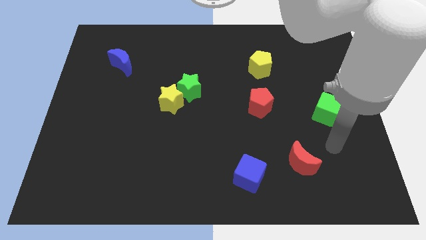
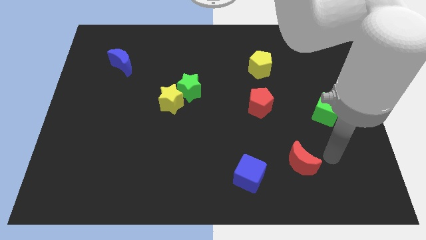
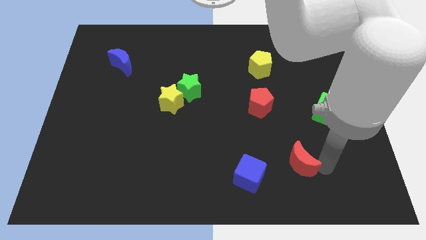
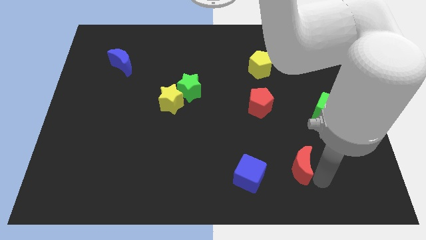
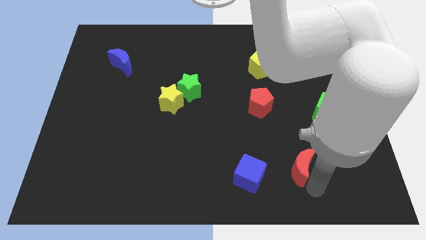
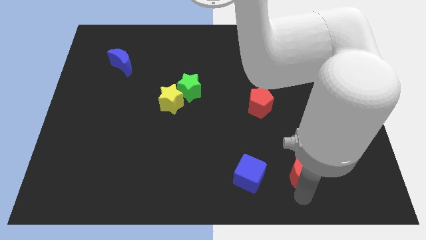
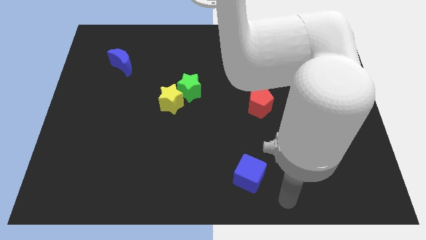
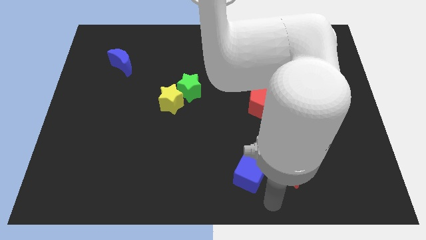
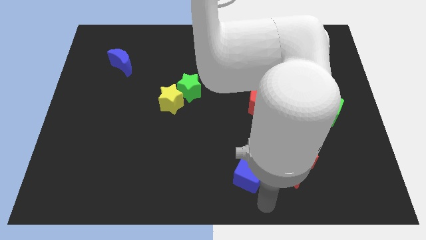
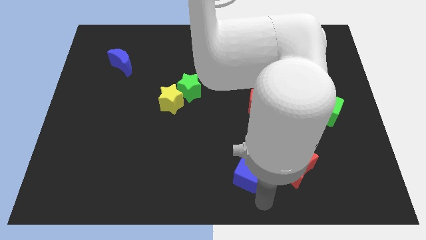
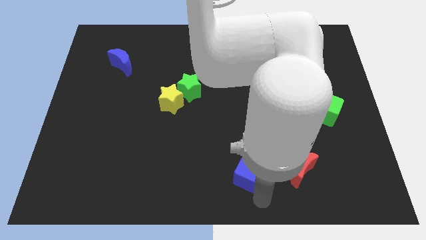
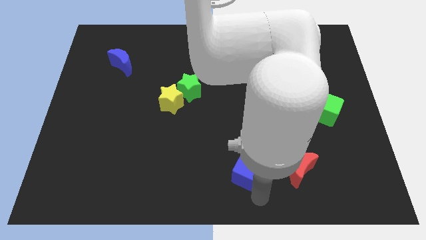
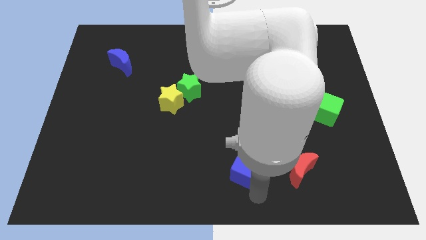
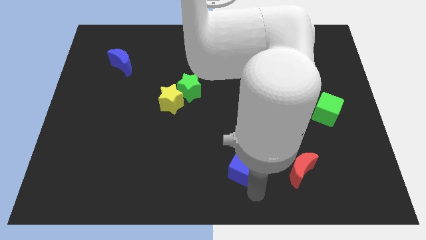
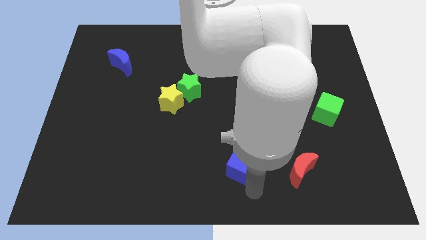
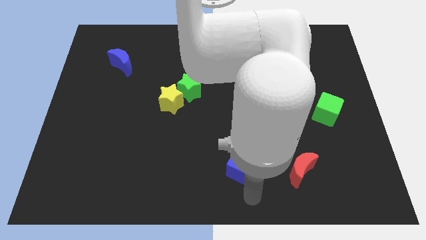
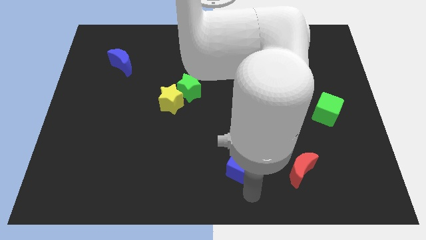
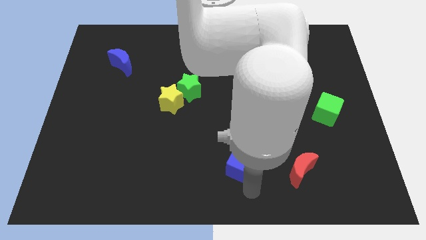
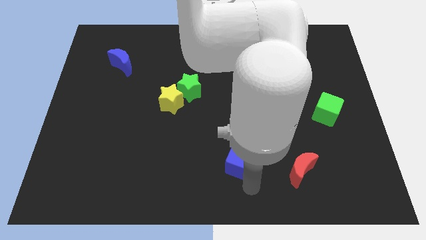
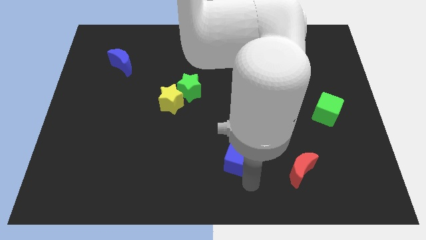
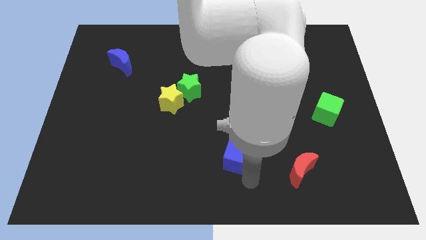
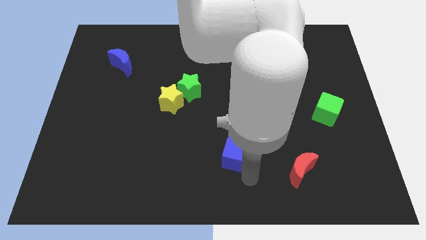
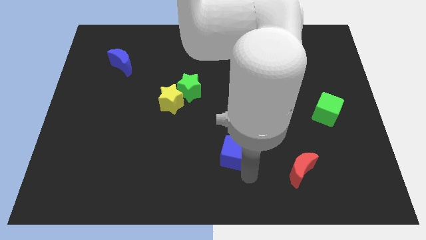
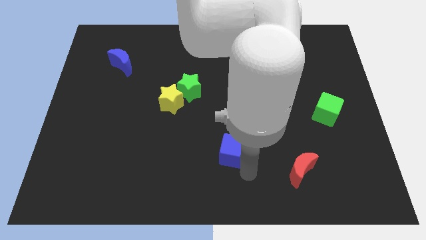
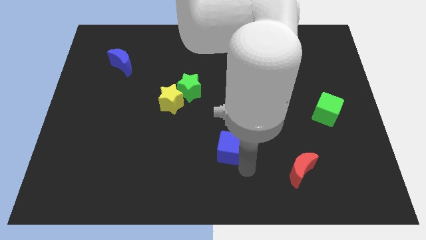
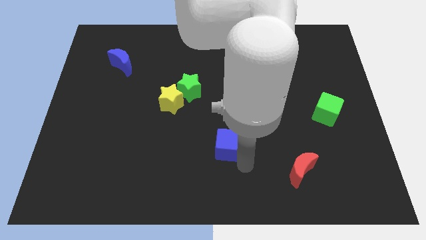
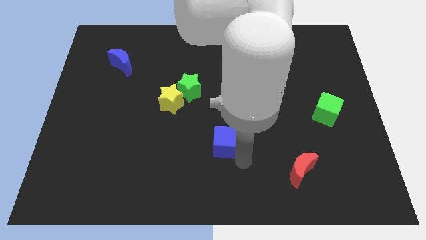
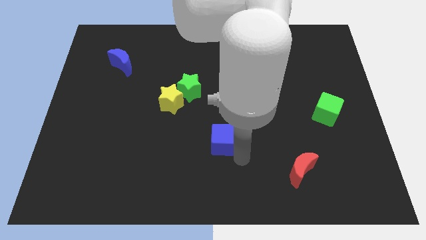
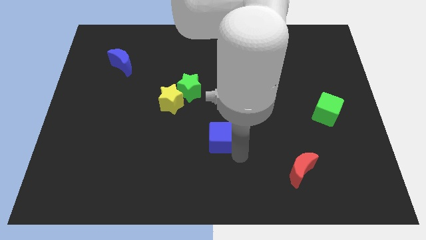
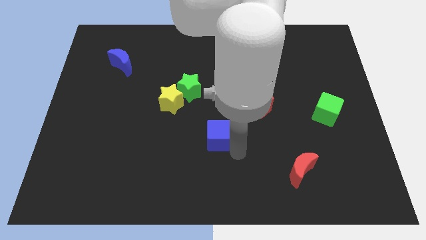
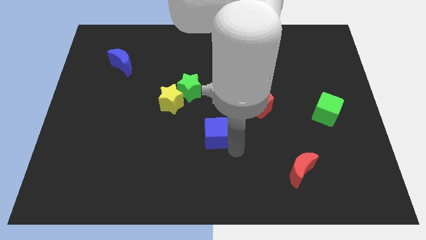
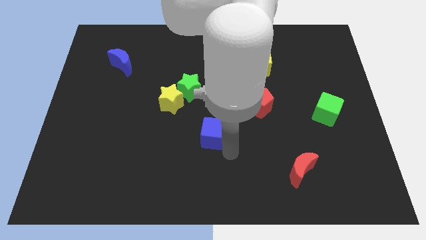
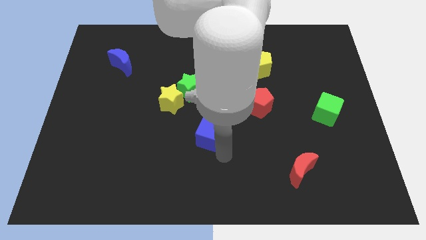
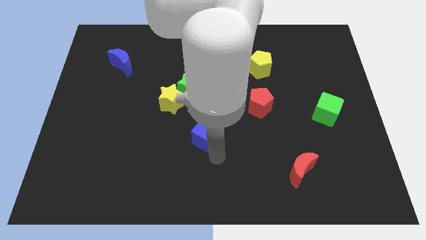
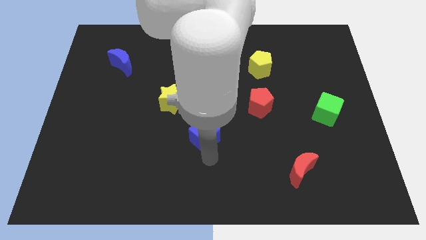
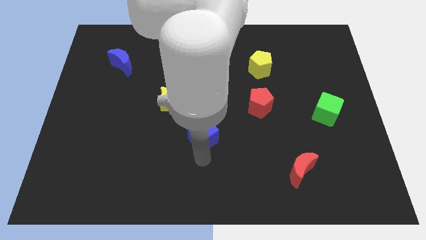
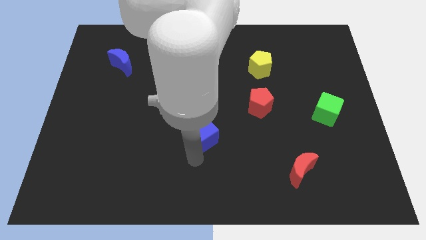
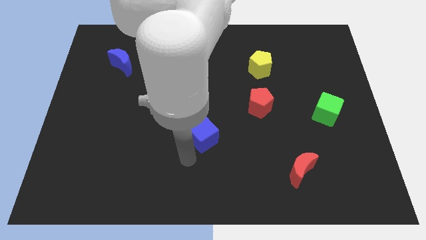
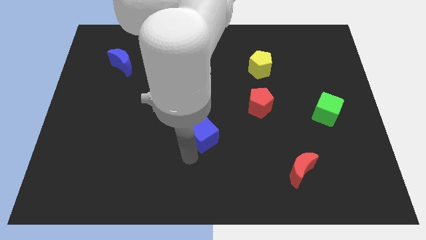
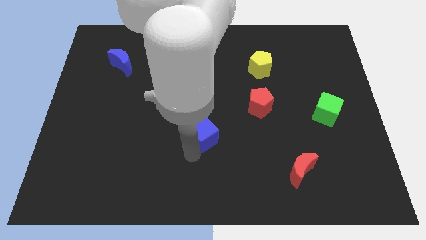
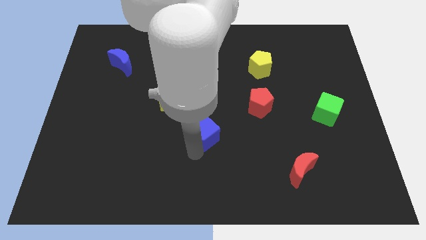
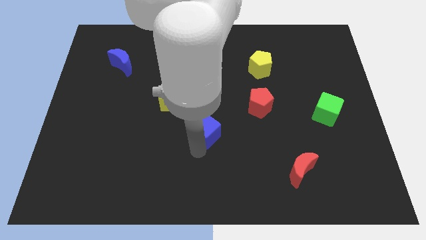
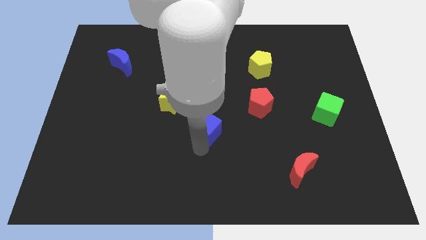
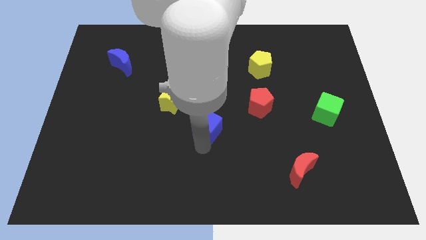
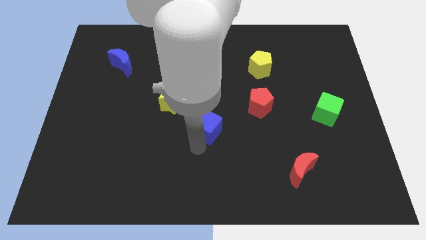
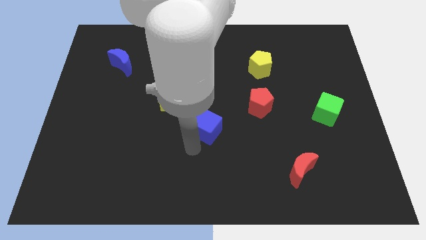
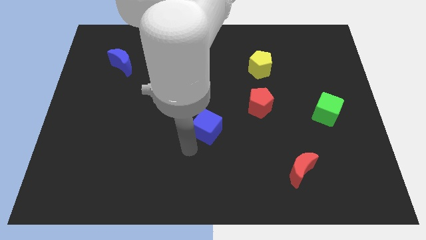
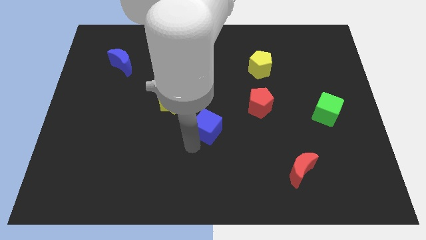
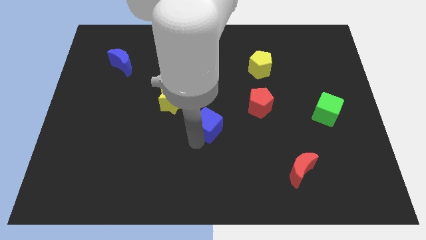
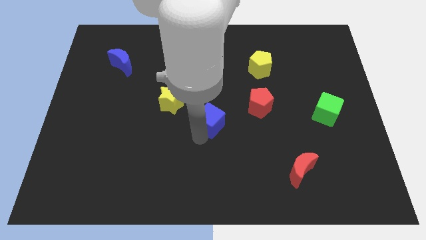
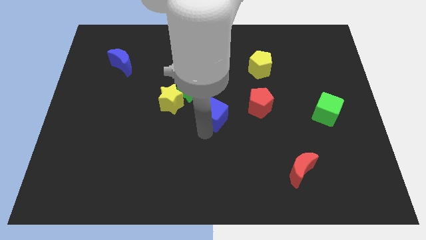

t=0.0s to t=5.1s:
move the blue cube to the left side of the red pentagon

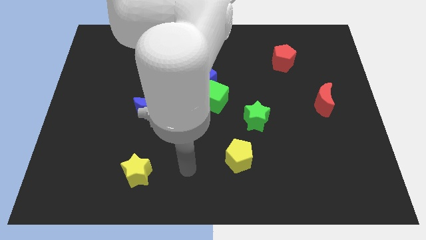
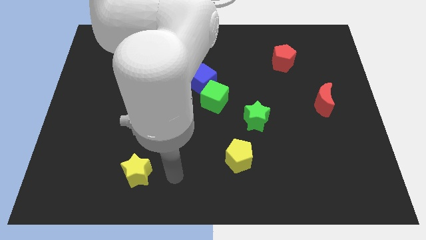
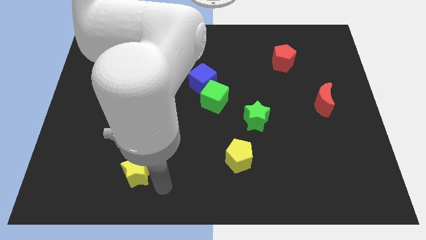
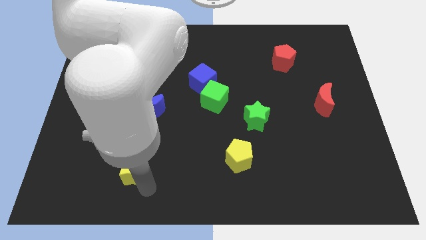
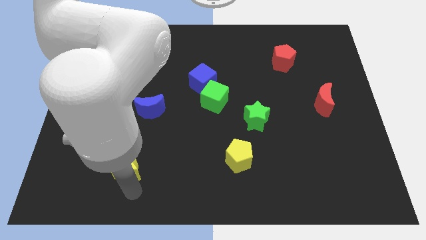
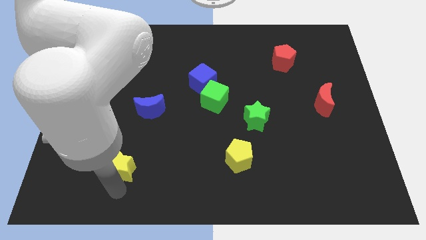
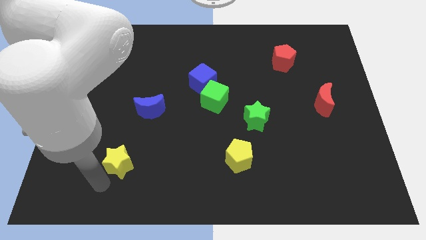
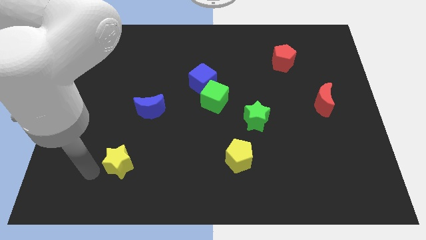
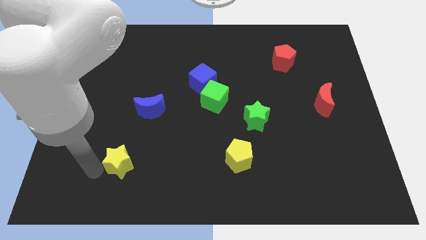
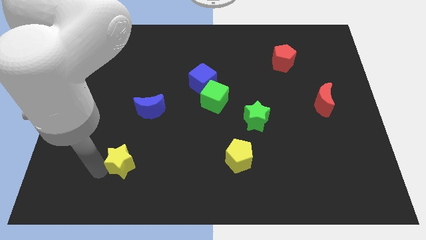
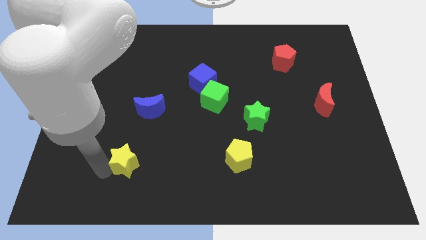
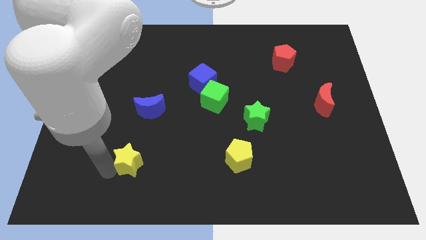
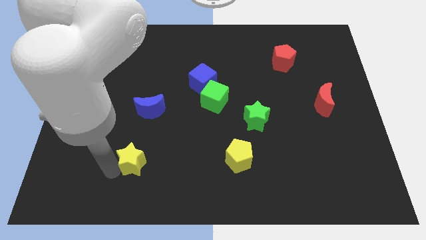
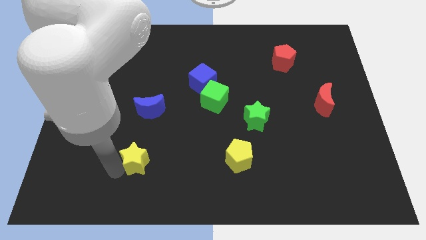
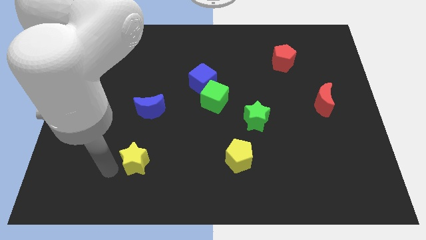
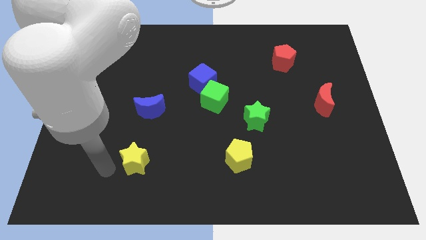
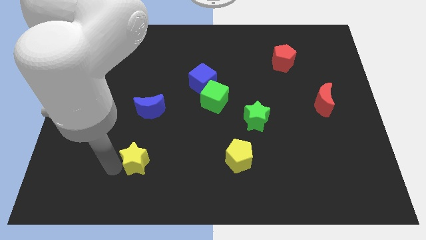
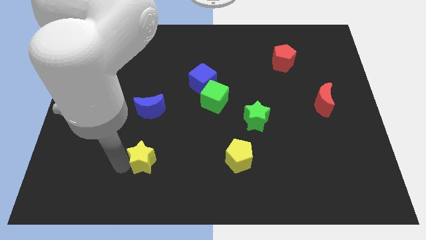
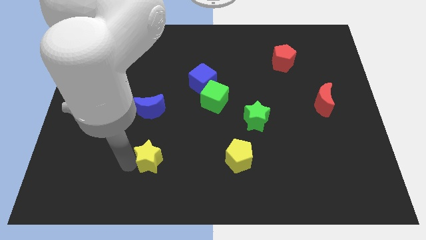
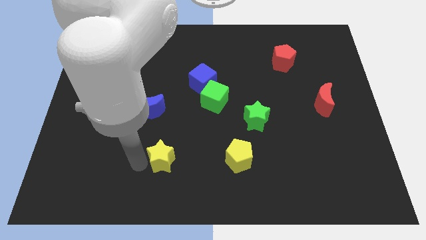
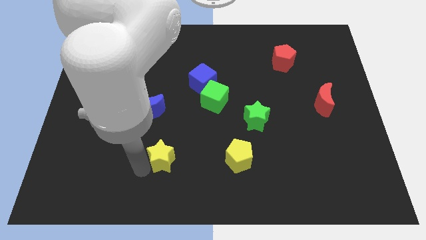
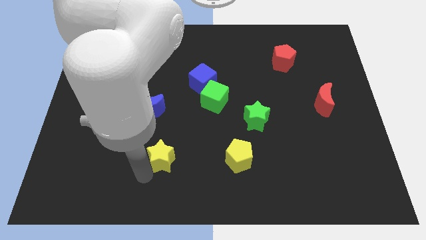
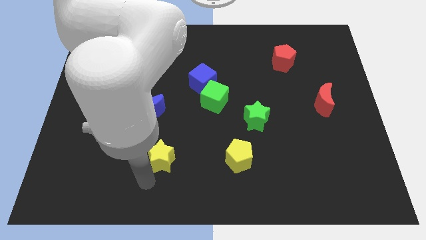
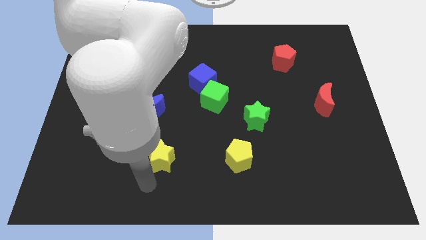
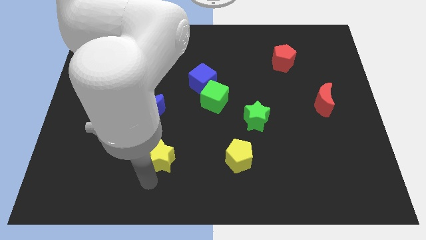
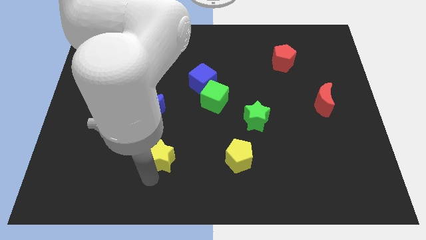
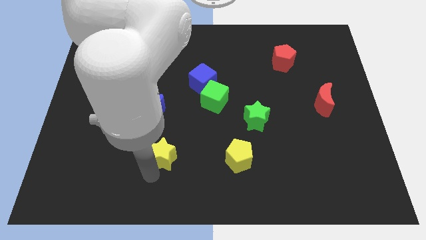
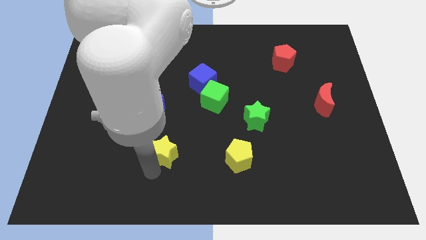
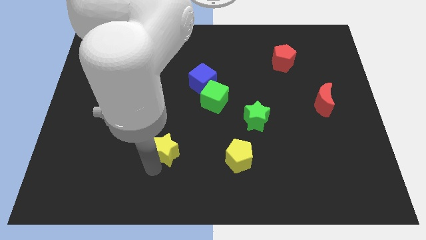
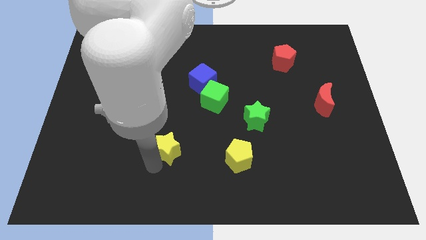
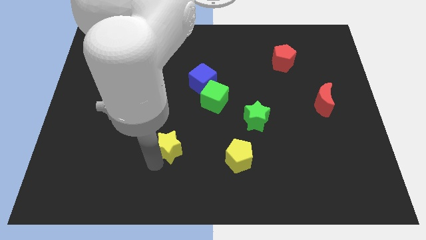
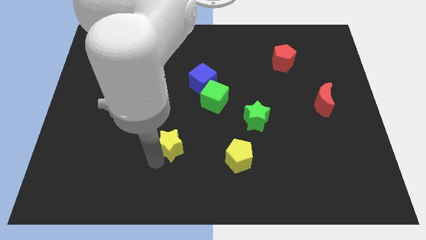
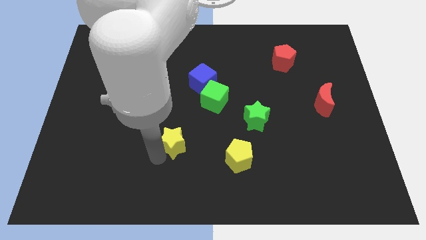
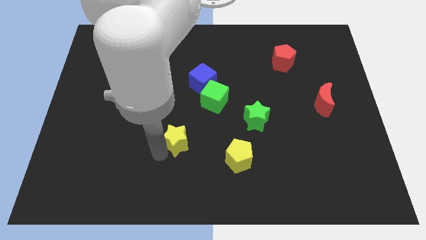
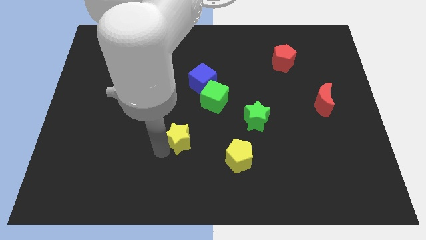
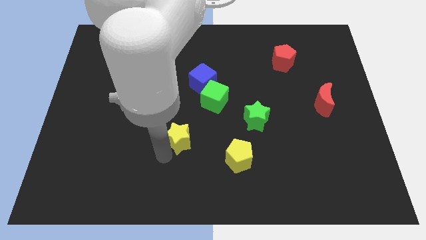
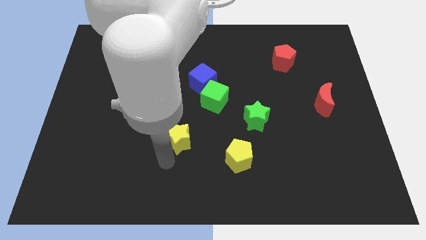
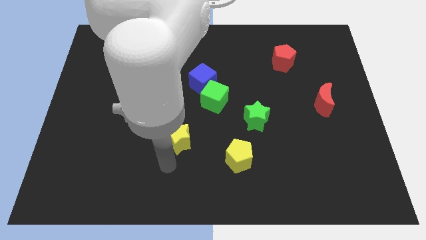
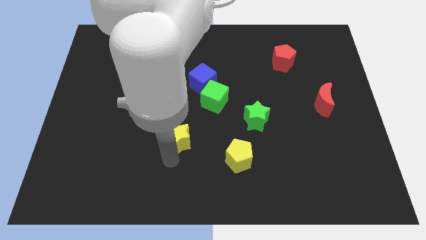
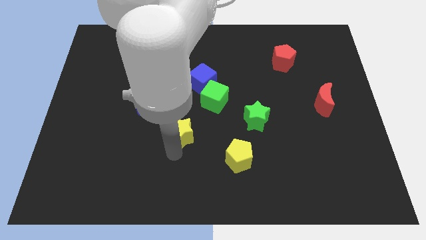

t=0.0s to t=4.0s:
slide the yellow star to the bottom left of the green cube
